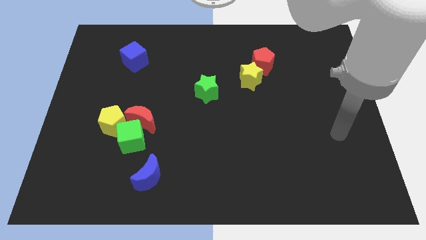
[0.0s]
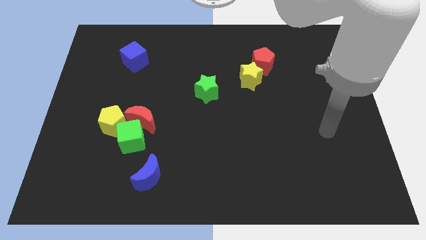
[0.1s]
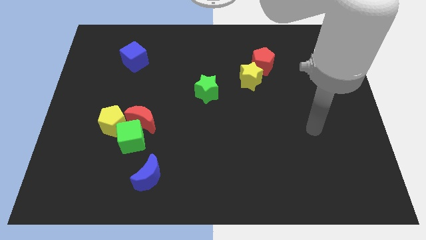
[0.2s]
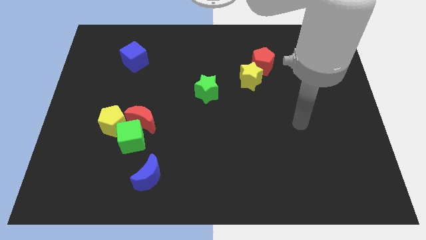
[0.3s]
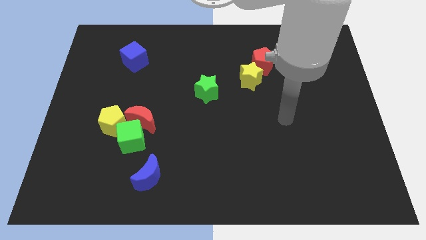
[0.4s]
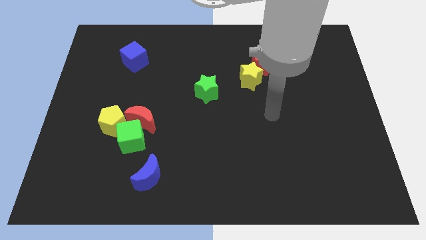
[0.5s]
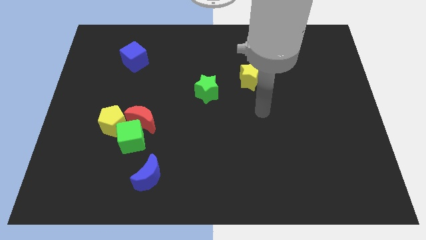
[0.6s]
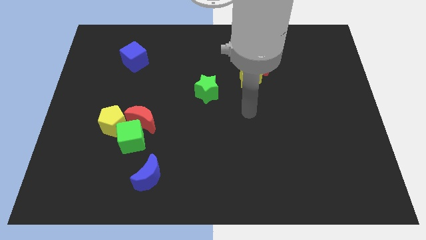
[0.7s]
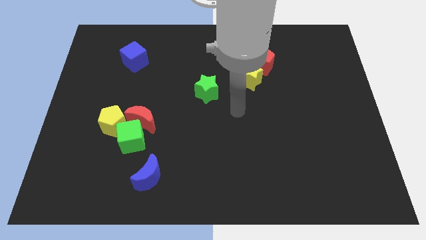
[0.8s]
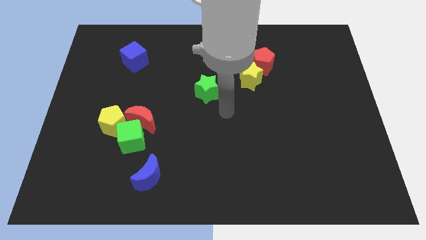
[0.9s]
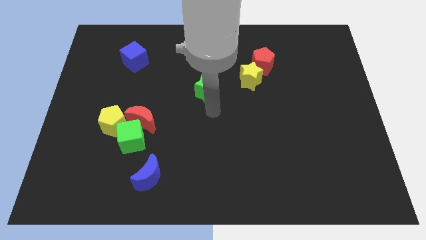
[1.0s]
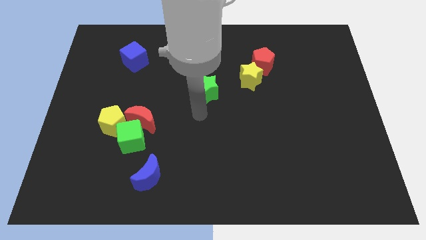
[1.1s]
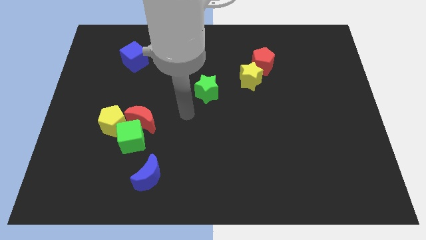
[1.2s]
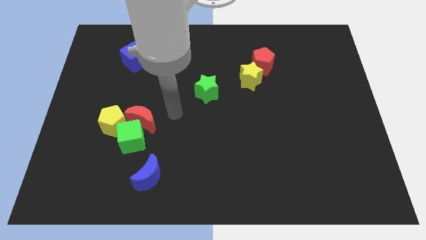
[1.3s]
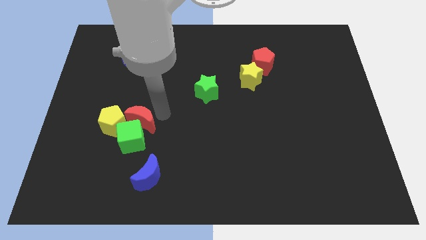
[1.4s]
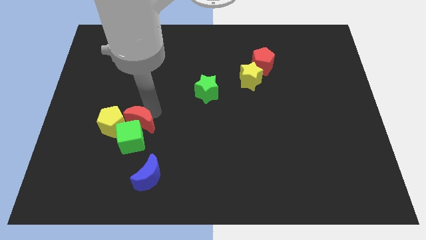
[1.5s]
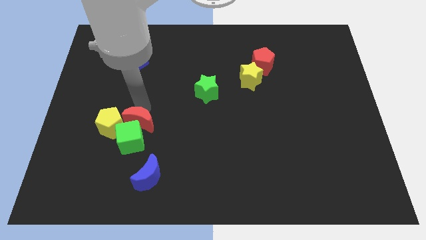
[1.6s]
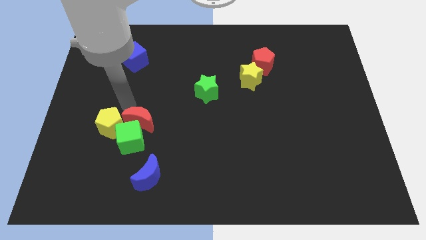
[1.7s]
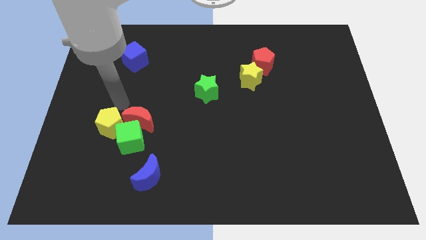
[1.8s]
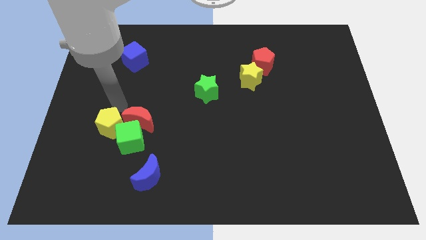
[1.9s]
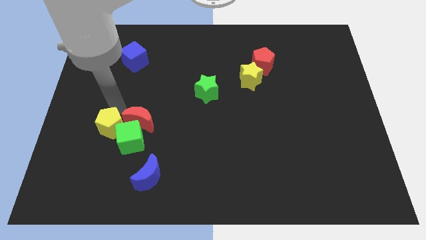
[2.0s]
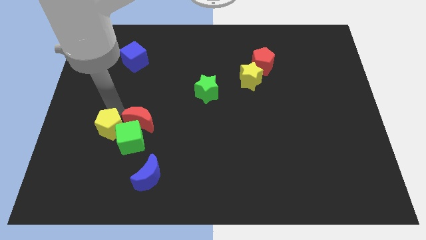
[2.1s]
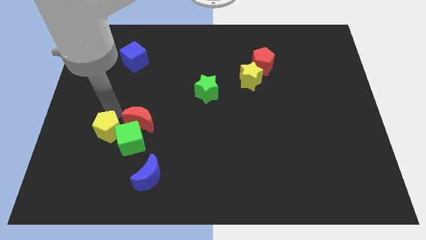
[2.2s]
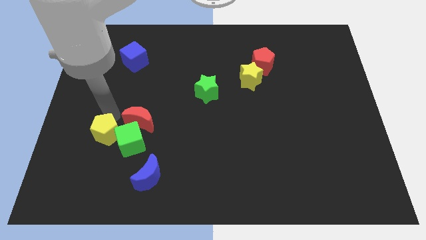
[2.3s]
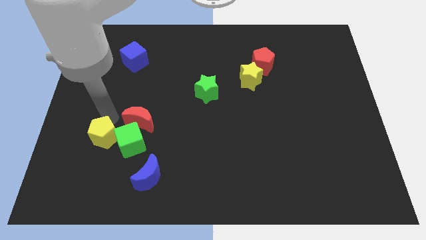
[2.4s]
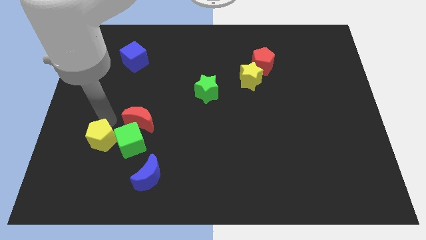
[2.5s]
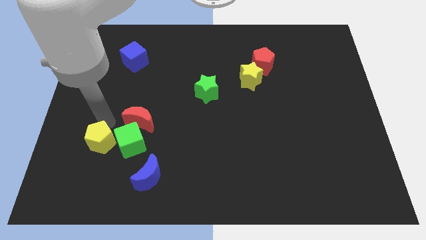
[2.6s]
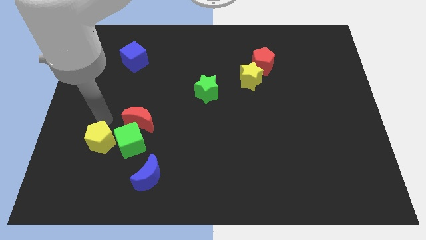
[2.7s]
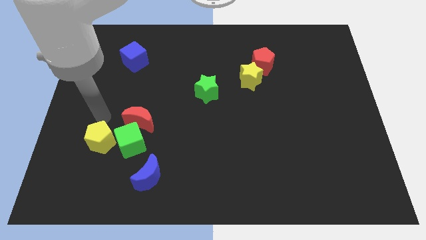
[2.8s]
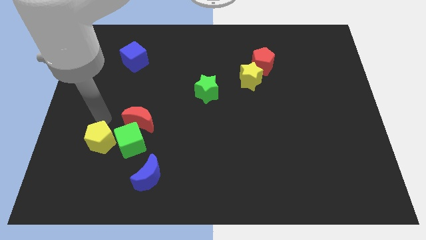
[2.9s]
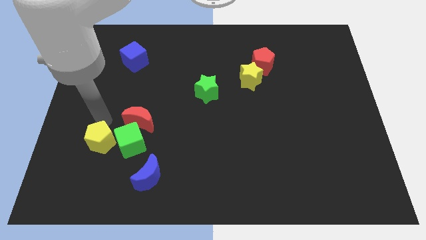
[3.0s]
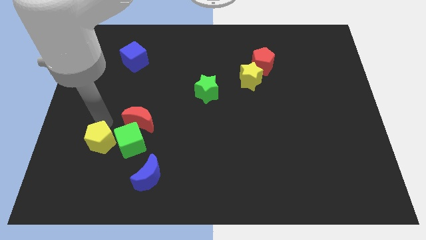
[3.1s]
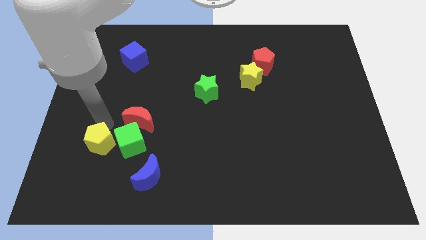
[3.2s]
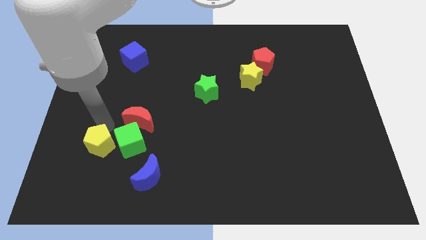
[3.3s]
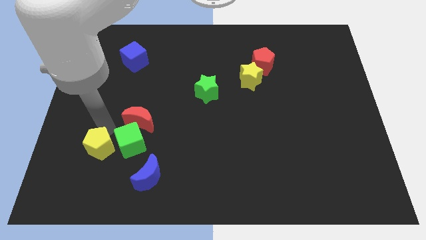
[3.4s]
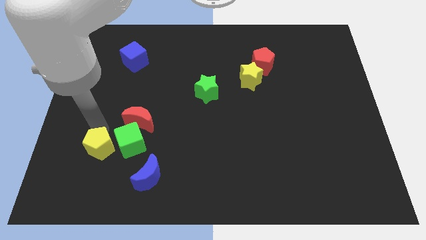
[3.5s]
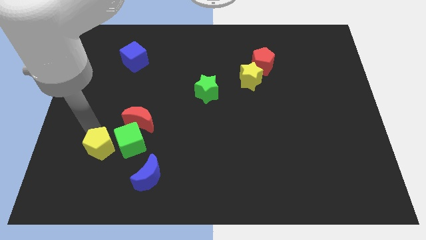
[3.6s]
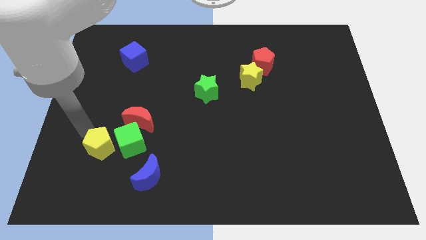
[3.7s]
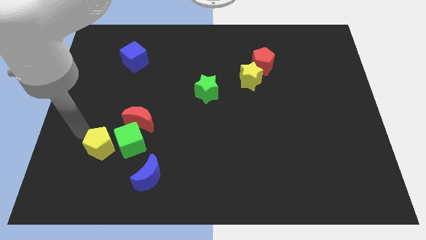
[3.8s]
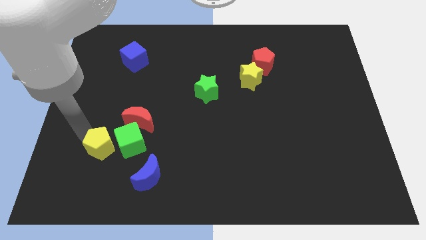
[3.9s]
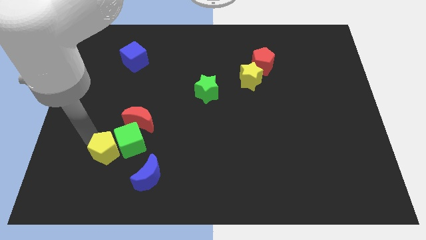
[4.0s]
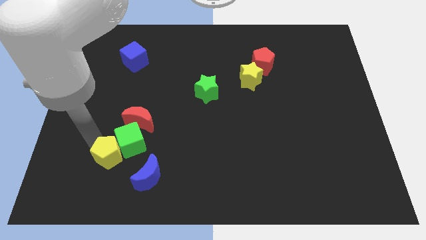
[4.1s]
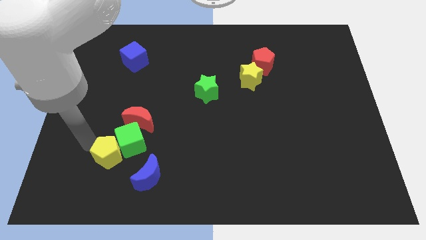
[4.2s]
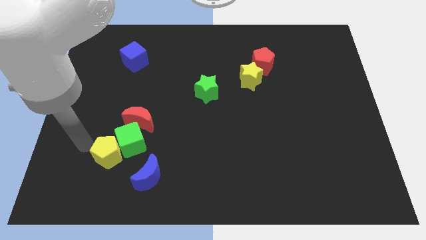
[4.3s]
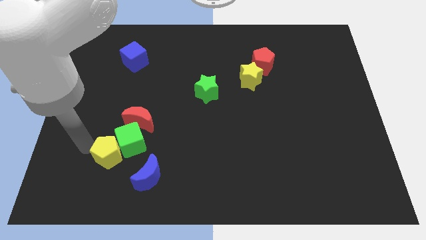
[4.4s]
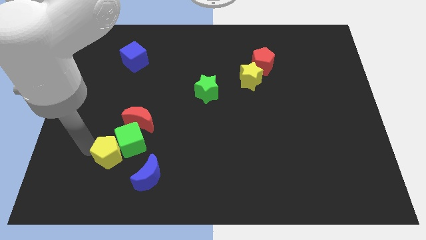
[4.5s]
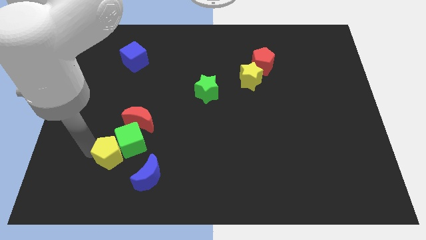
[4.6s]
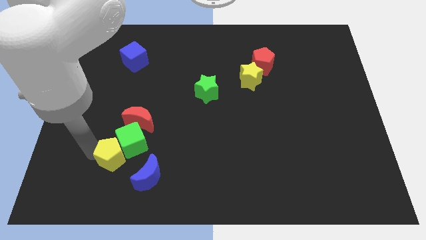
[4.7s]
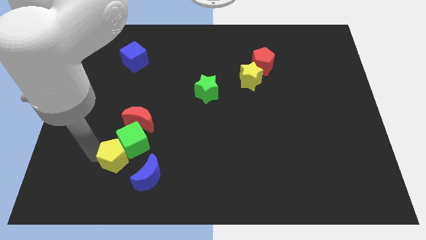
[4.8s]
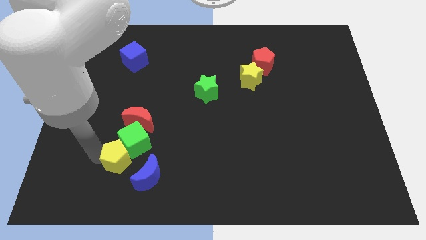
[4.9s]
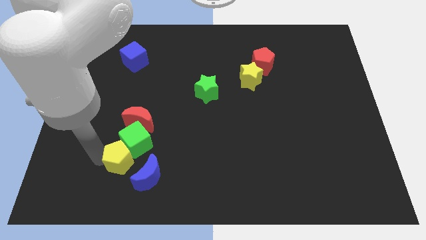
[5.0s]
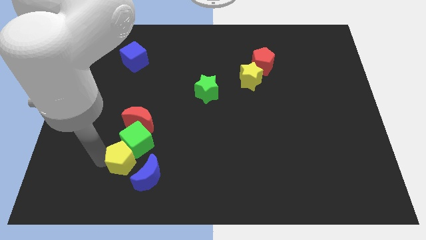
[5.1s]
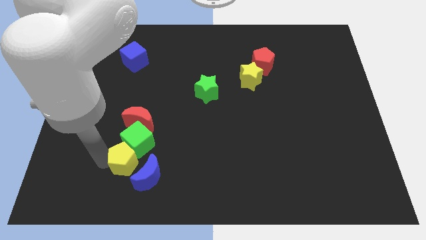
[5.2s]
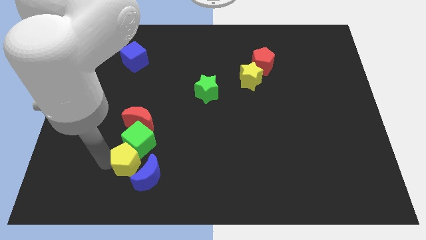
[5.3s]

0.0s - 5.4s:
slide the yellow pentagon towards the blue moon

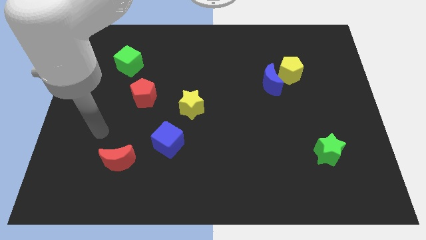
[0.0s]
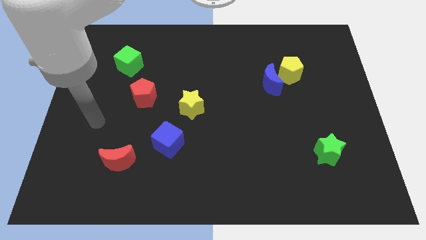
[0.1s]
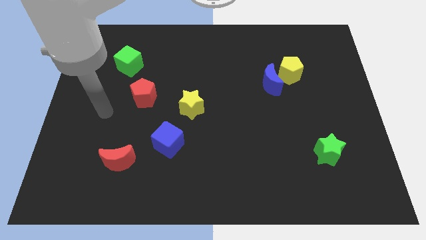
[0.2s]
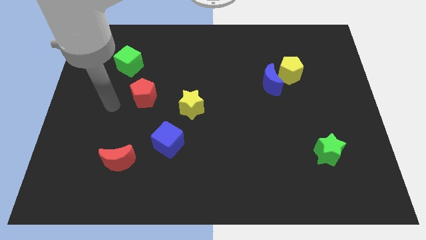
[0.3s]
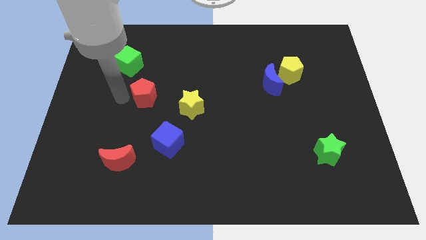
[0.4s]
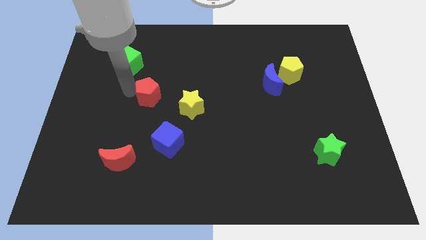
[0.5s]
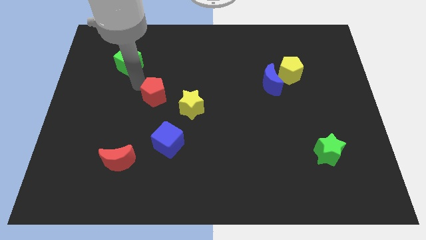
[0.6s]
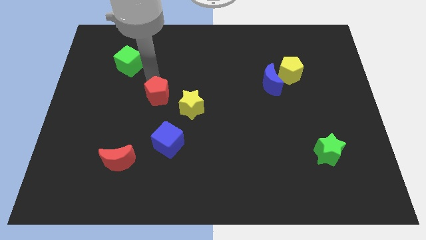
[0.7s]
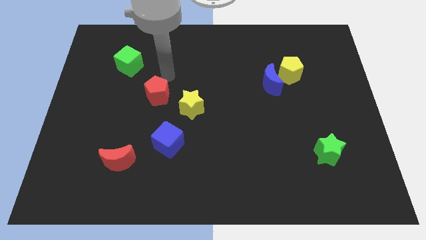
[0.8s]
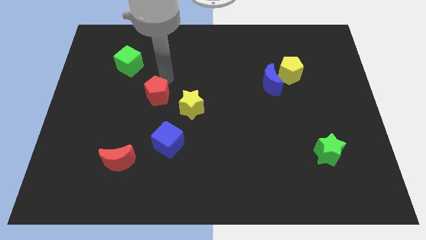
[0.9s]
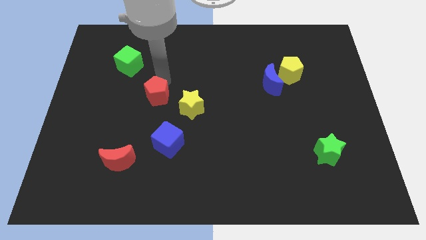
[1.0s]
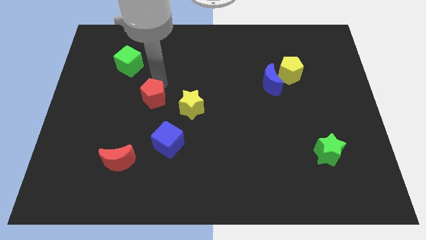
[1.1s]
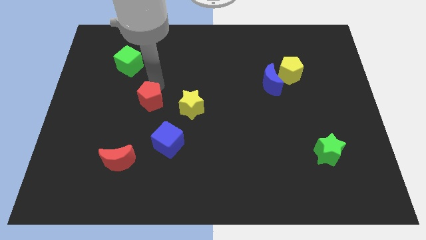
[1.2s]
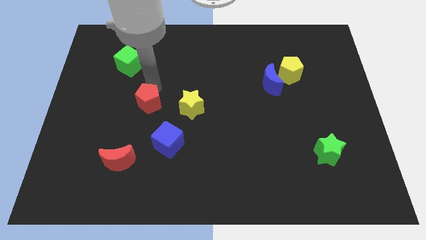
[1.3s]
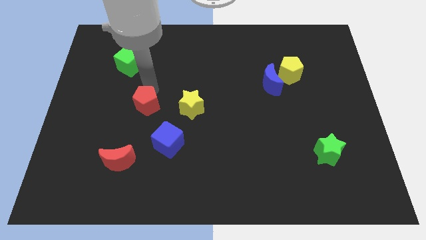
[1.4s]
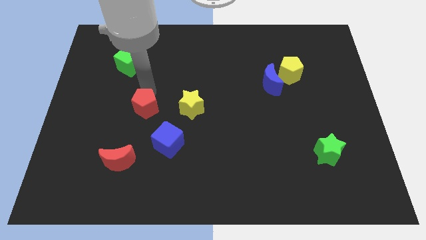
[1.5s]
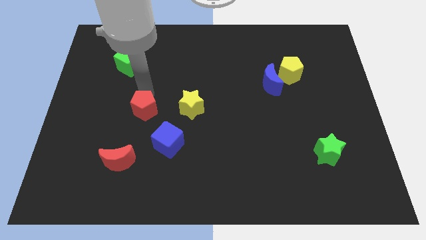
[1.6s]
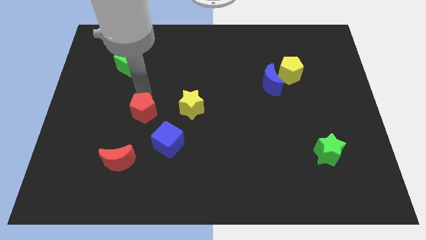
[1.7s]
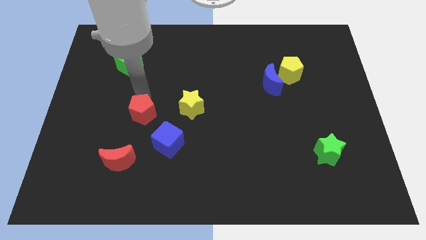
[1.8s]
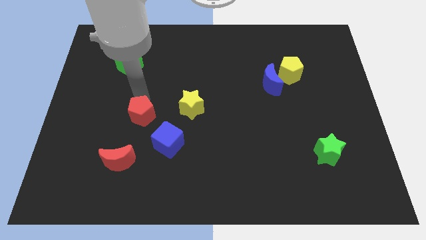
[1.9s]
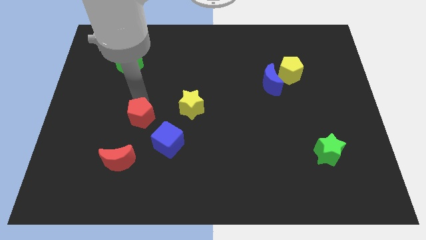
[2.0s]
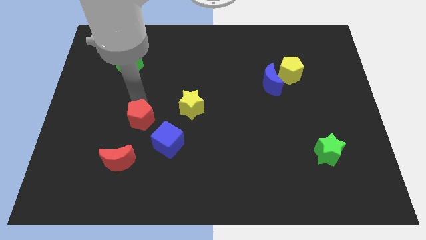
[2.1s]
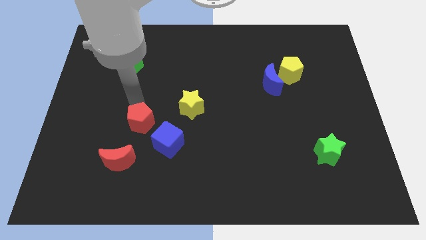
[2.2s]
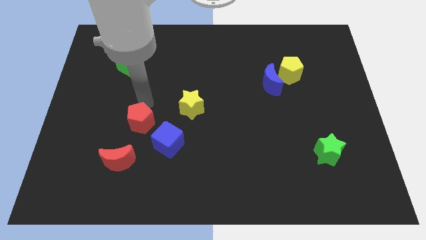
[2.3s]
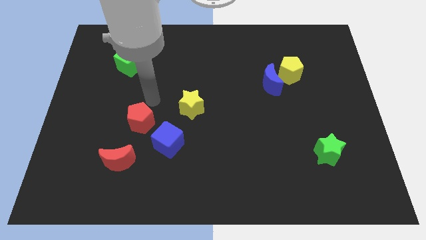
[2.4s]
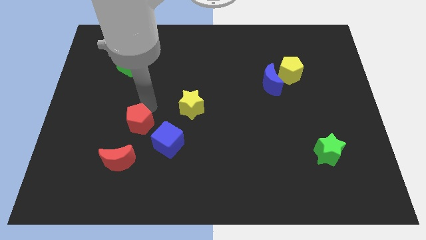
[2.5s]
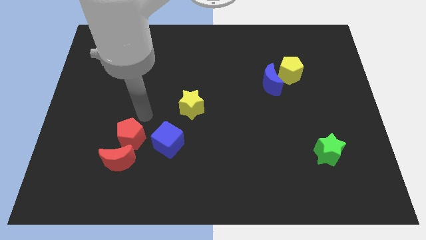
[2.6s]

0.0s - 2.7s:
slide the red pentagon to the red moon
